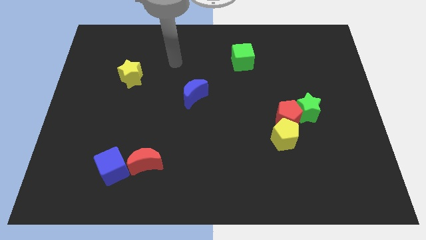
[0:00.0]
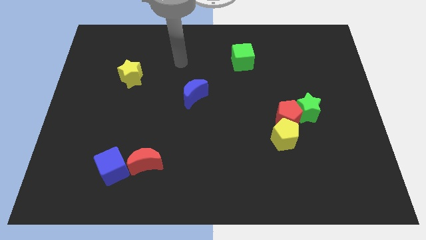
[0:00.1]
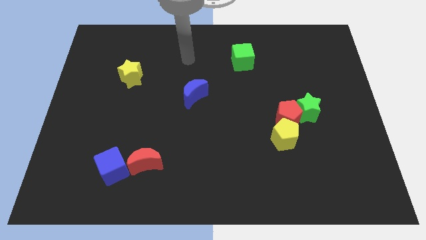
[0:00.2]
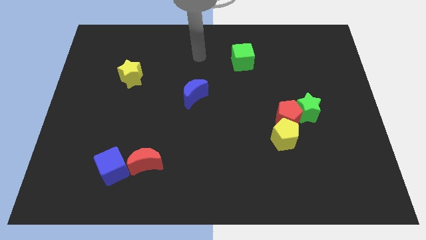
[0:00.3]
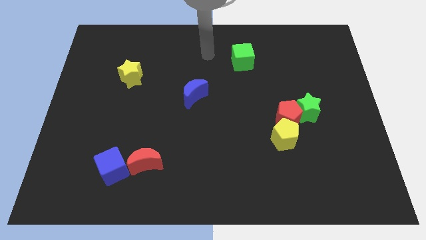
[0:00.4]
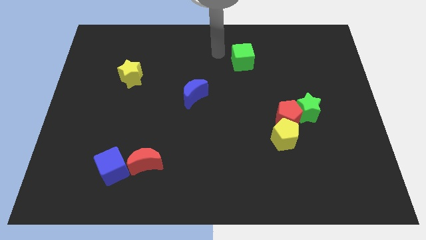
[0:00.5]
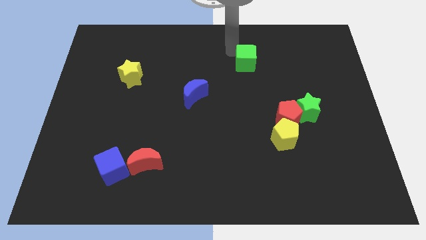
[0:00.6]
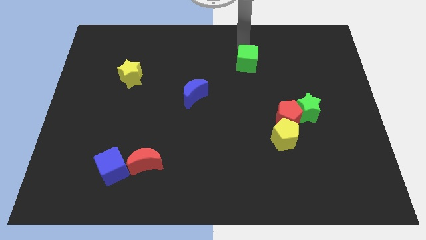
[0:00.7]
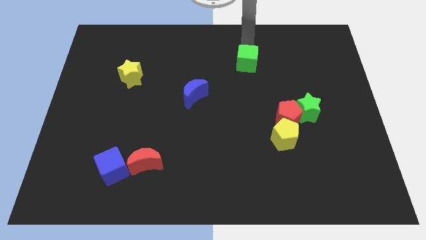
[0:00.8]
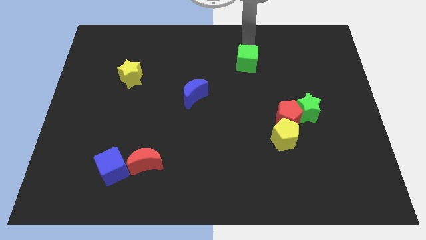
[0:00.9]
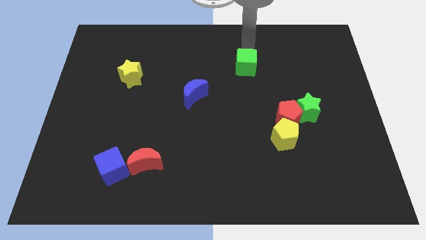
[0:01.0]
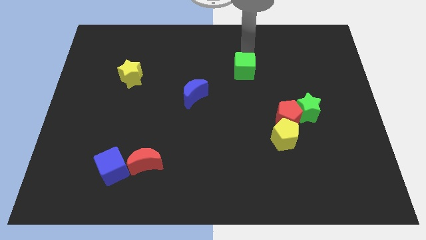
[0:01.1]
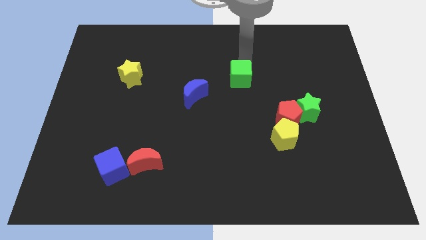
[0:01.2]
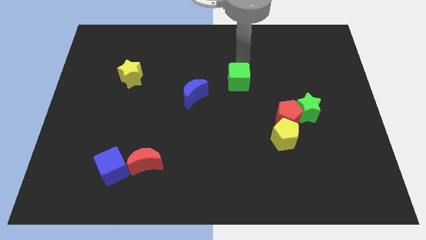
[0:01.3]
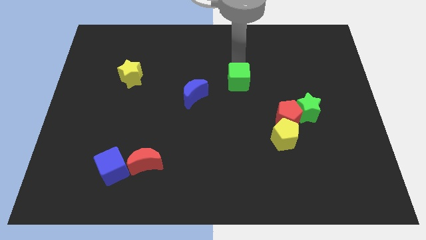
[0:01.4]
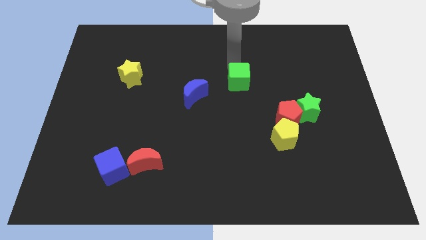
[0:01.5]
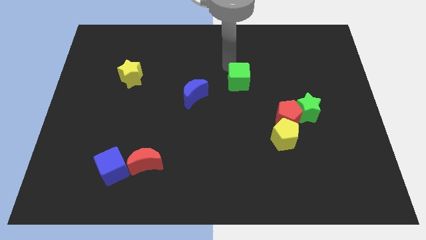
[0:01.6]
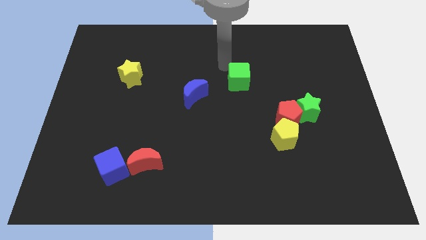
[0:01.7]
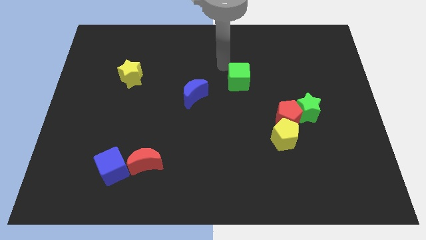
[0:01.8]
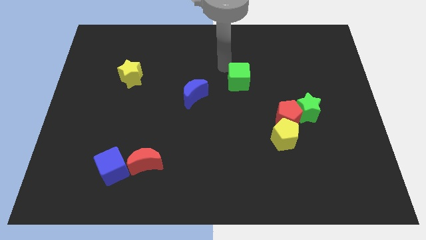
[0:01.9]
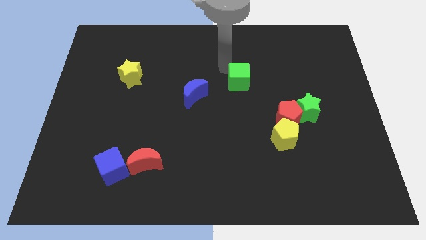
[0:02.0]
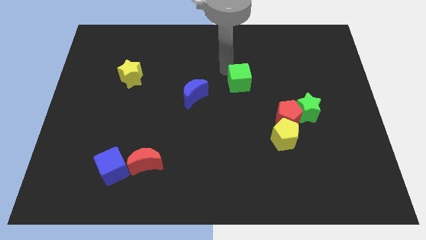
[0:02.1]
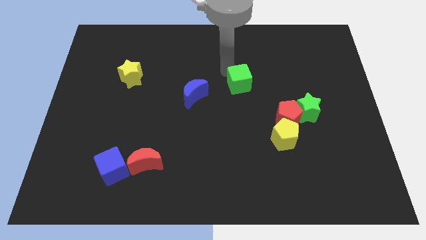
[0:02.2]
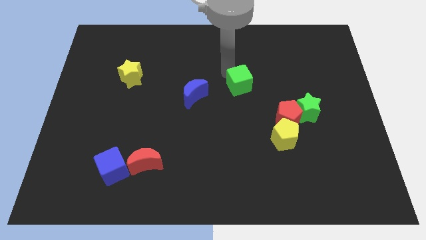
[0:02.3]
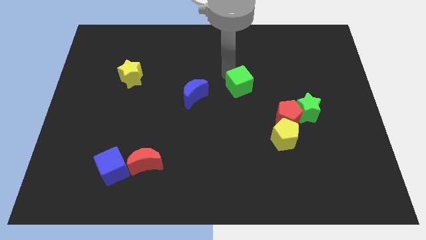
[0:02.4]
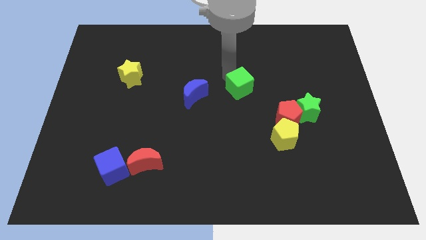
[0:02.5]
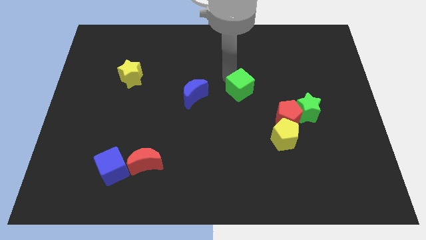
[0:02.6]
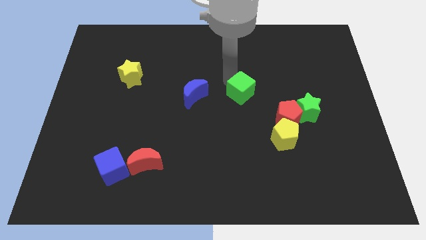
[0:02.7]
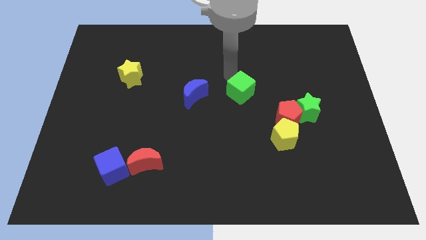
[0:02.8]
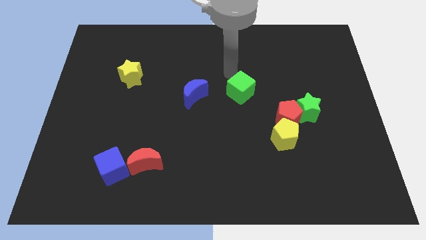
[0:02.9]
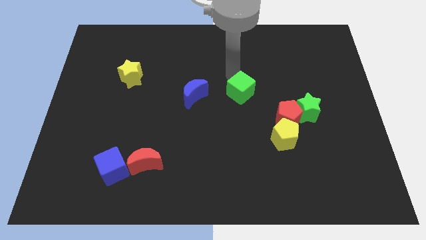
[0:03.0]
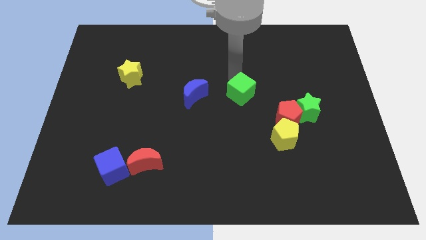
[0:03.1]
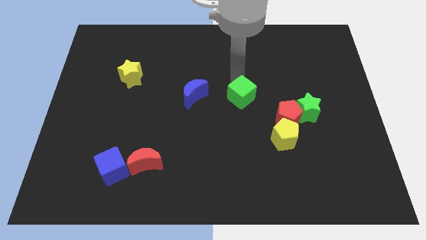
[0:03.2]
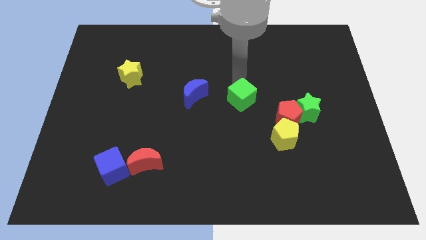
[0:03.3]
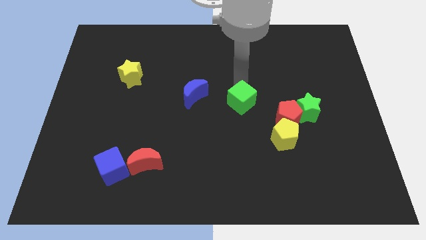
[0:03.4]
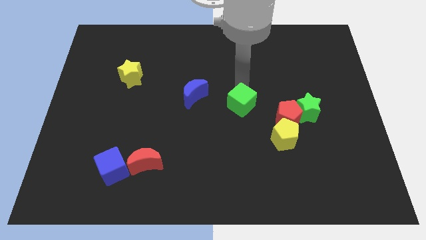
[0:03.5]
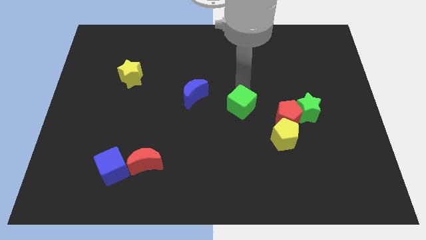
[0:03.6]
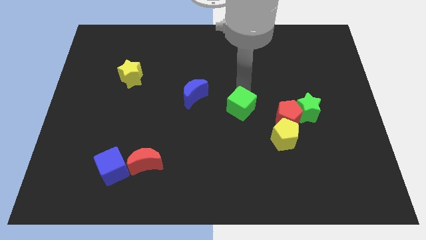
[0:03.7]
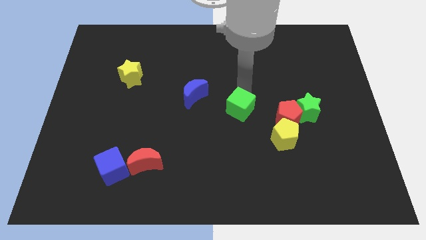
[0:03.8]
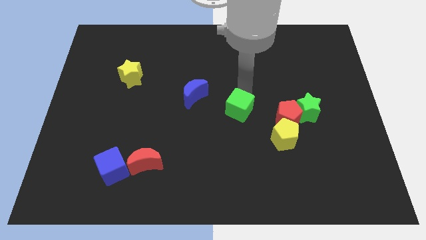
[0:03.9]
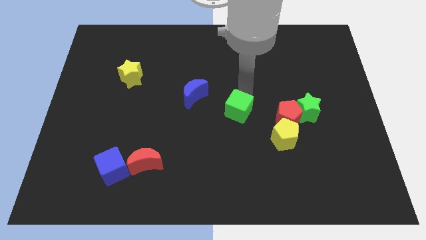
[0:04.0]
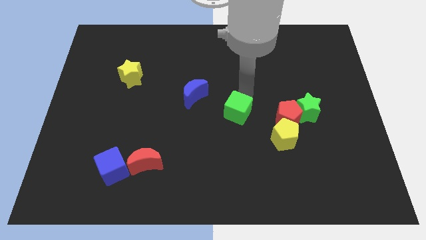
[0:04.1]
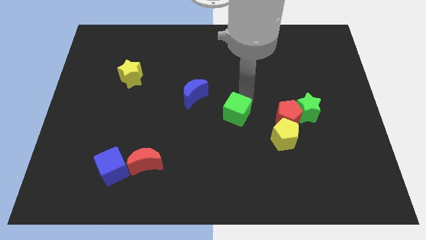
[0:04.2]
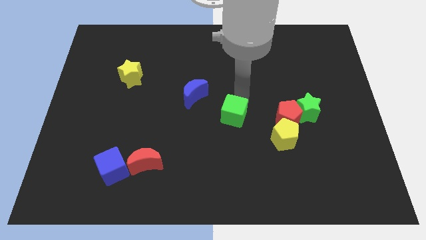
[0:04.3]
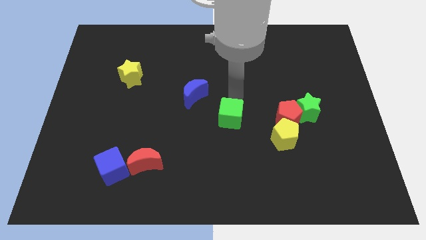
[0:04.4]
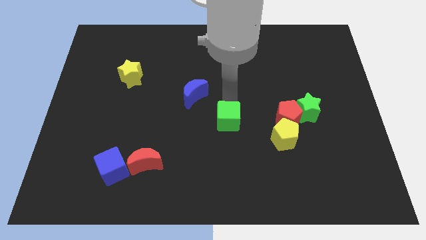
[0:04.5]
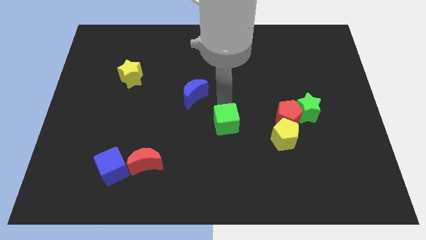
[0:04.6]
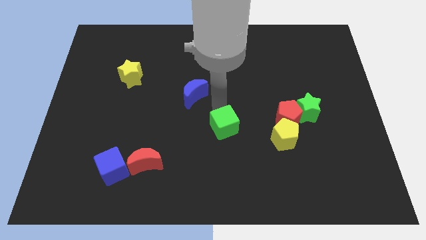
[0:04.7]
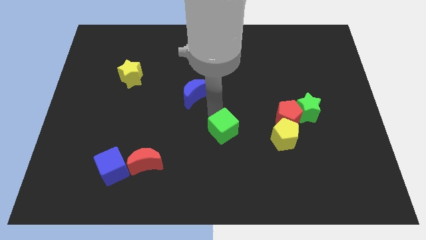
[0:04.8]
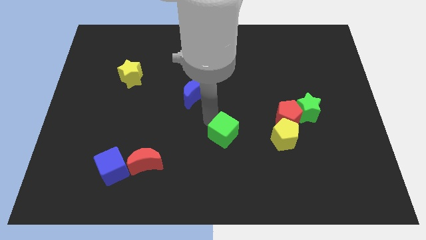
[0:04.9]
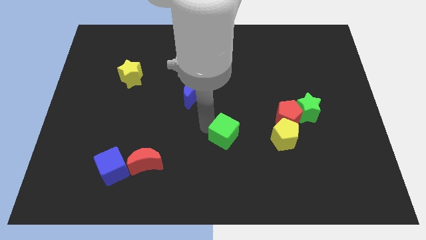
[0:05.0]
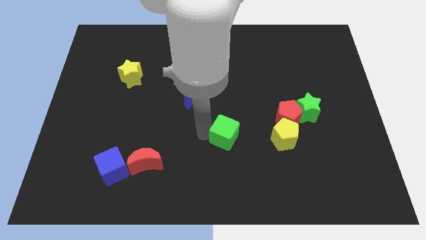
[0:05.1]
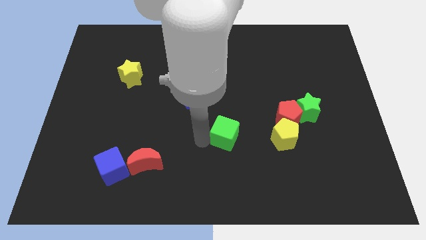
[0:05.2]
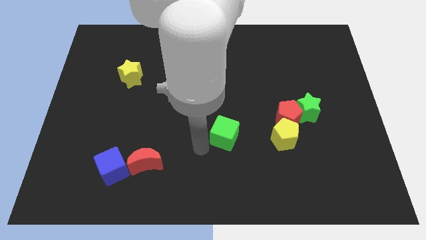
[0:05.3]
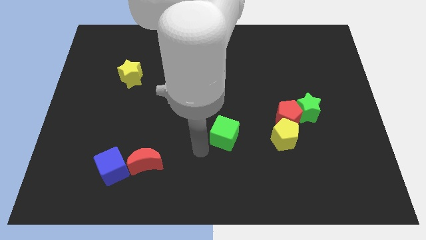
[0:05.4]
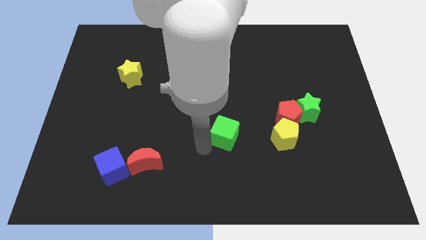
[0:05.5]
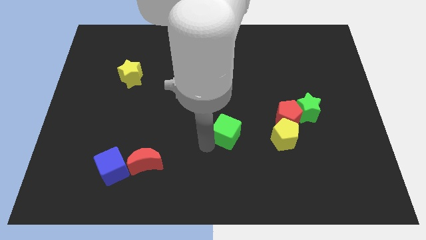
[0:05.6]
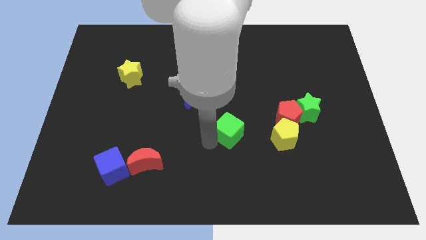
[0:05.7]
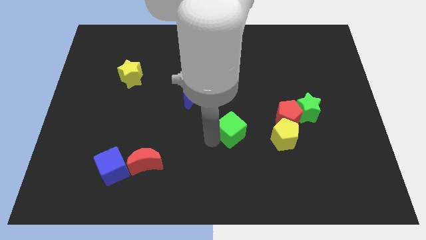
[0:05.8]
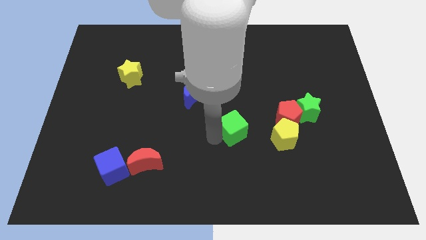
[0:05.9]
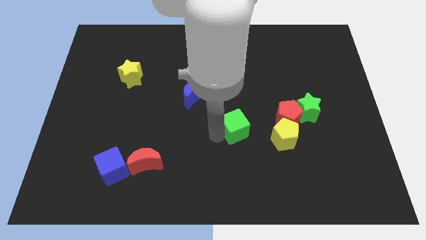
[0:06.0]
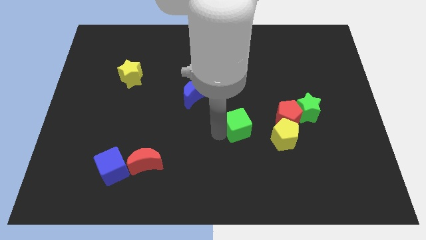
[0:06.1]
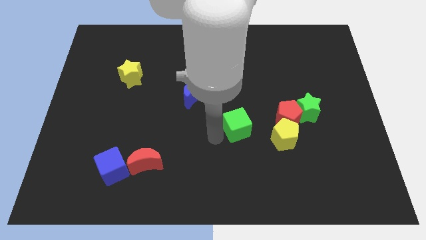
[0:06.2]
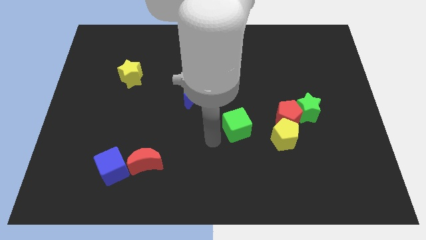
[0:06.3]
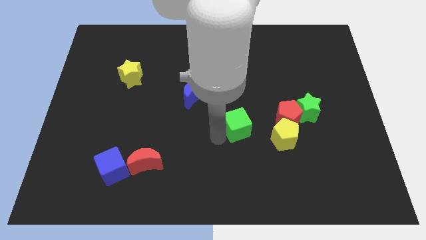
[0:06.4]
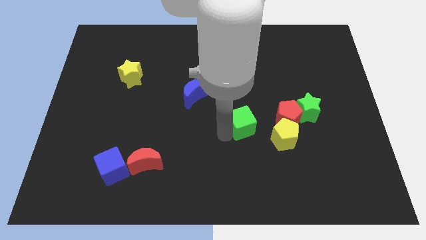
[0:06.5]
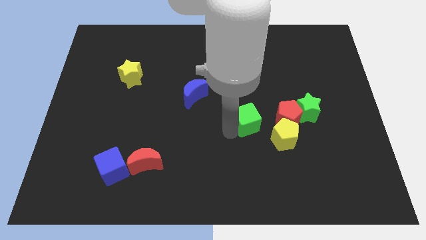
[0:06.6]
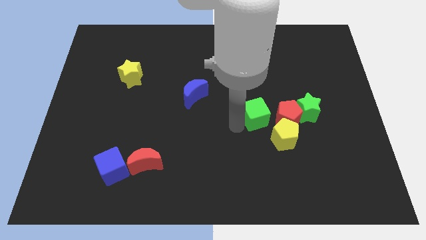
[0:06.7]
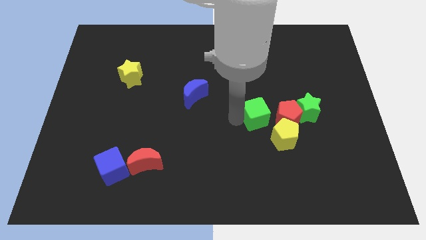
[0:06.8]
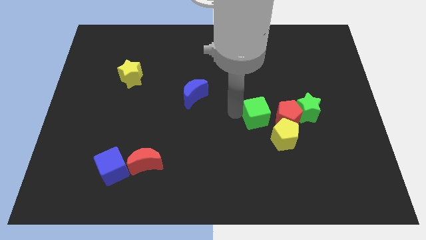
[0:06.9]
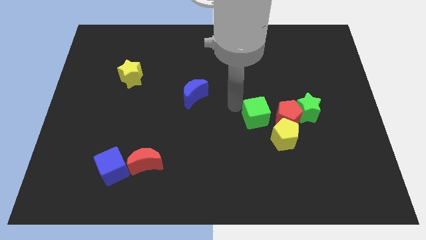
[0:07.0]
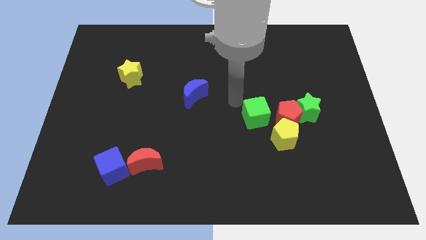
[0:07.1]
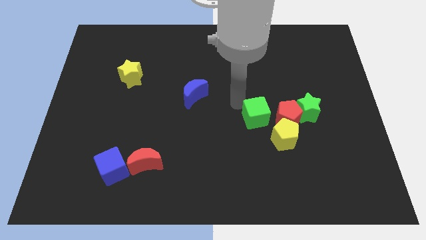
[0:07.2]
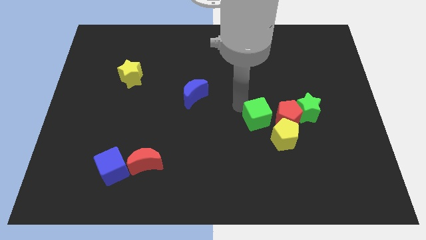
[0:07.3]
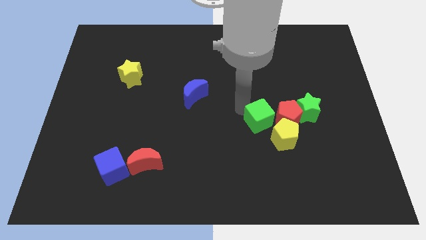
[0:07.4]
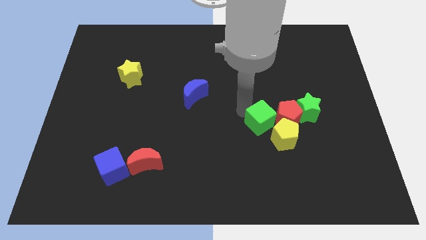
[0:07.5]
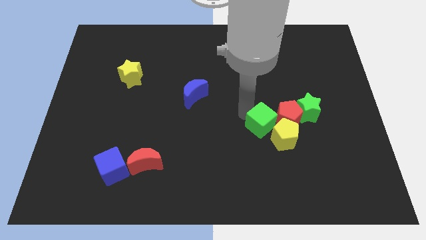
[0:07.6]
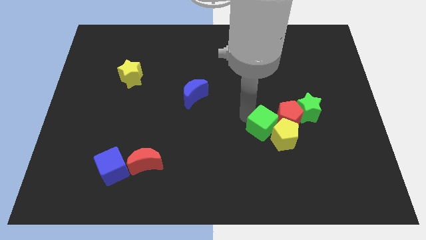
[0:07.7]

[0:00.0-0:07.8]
push the green cube next to the yellow pentagon
